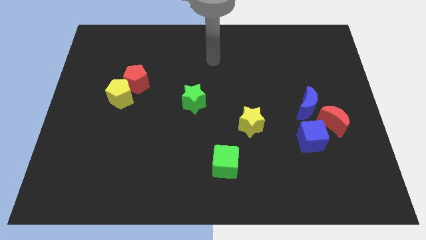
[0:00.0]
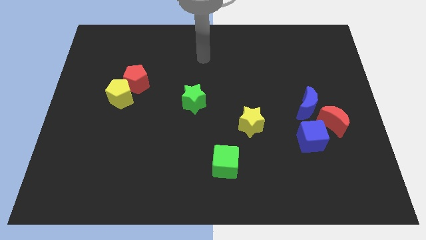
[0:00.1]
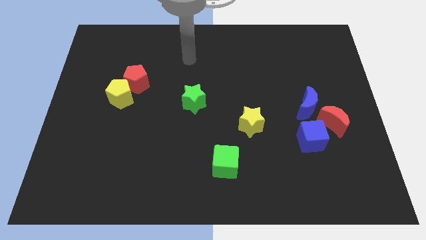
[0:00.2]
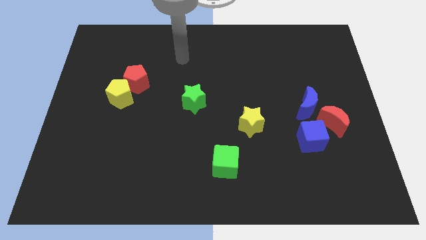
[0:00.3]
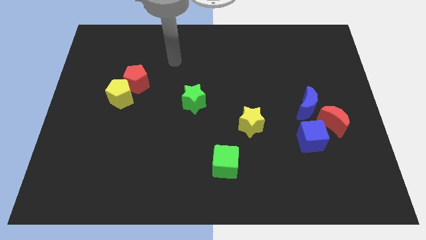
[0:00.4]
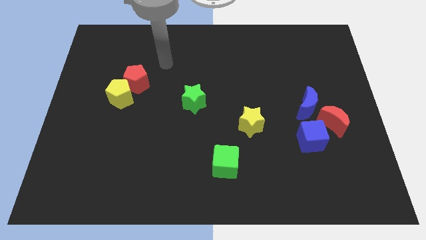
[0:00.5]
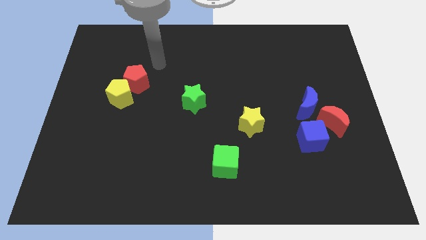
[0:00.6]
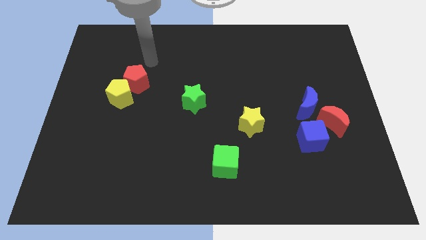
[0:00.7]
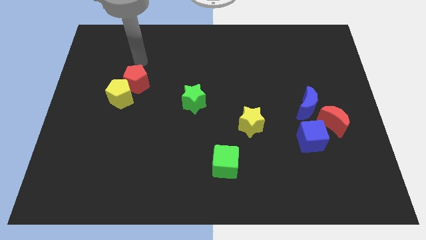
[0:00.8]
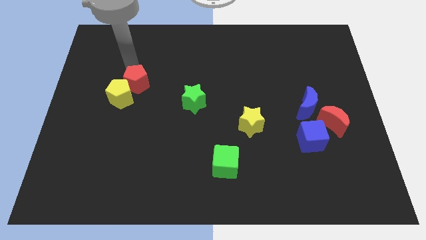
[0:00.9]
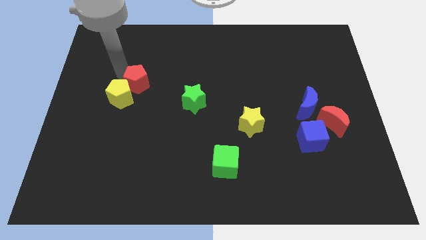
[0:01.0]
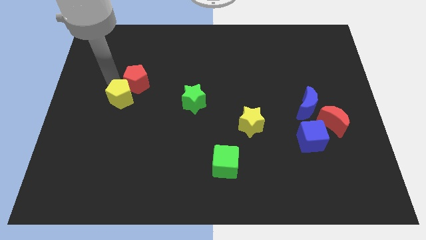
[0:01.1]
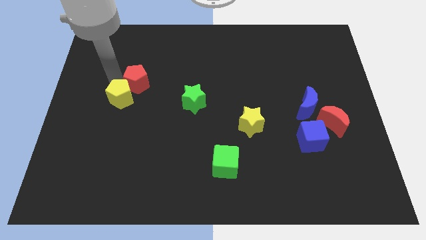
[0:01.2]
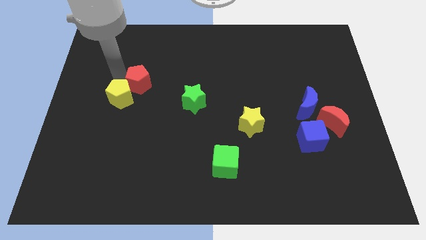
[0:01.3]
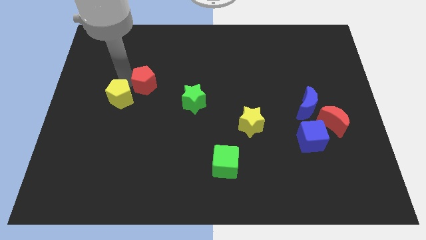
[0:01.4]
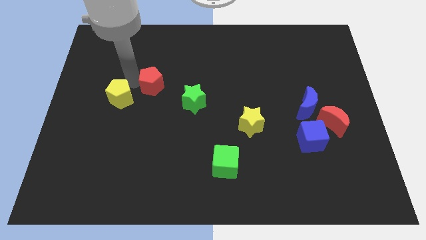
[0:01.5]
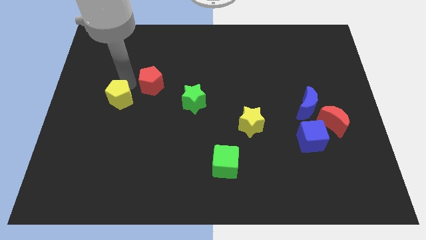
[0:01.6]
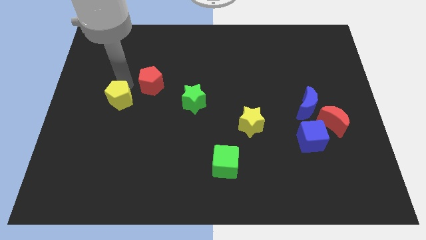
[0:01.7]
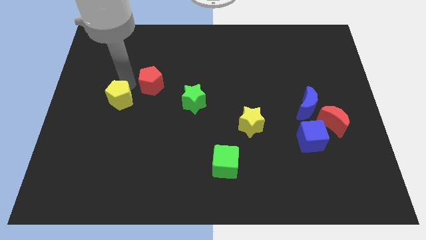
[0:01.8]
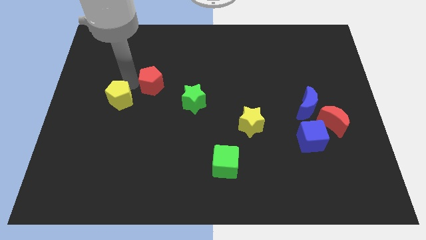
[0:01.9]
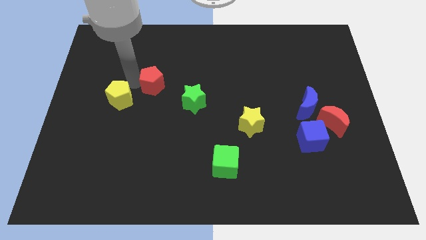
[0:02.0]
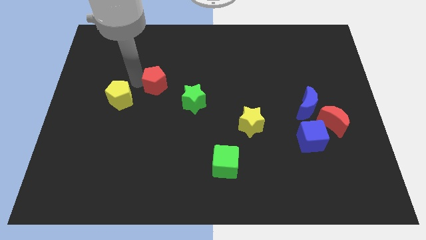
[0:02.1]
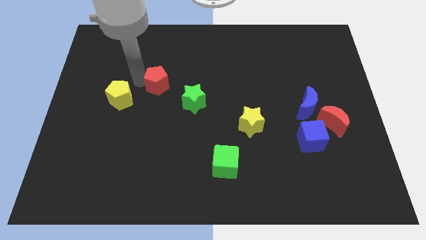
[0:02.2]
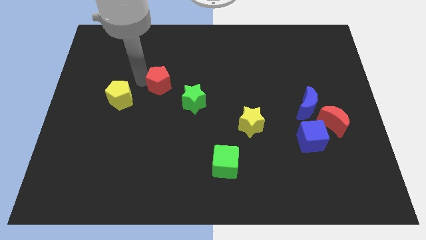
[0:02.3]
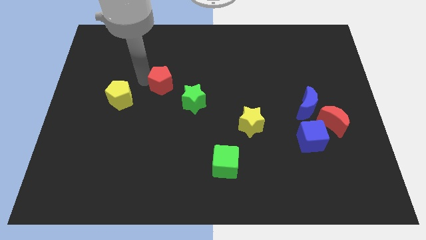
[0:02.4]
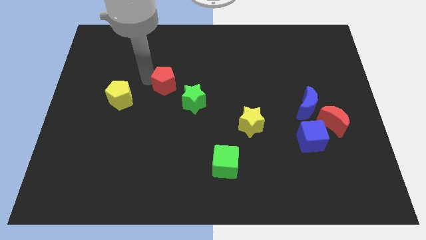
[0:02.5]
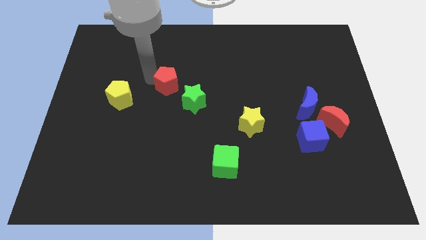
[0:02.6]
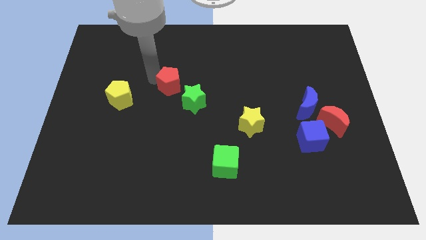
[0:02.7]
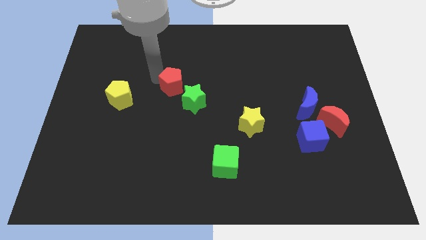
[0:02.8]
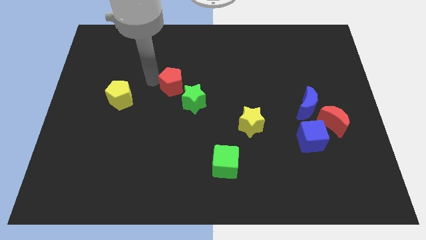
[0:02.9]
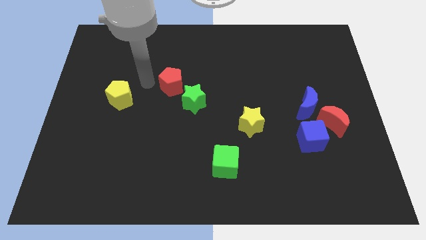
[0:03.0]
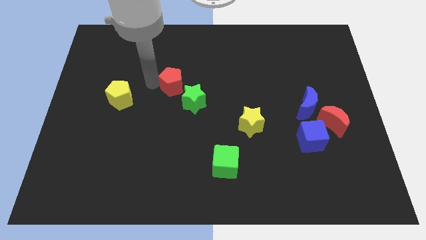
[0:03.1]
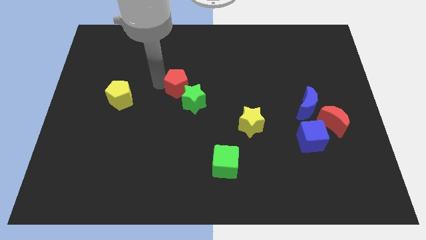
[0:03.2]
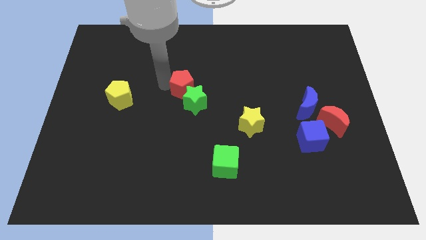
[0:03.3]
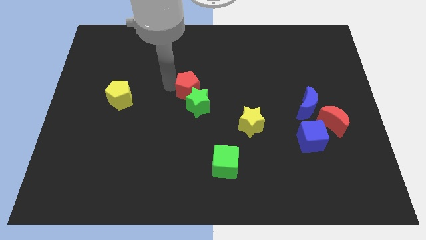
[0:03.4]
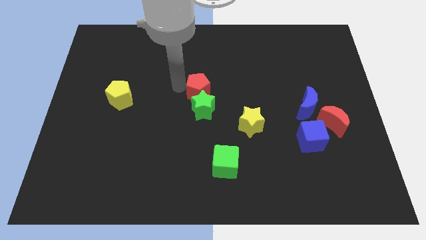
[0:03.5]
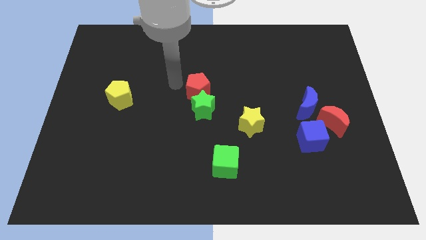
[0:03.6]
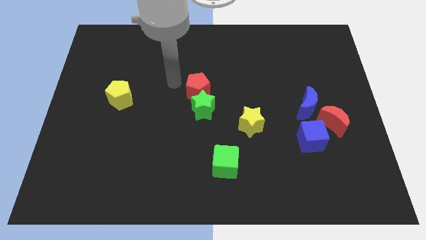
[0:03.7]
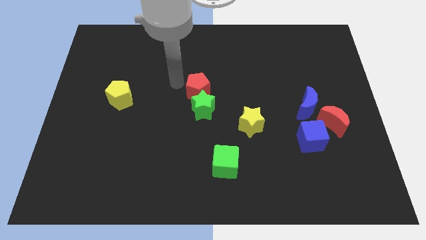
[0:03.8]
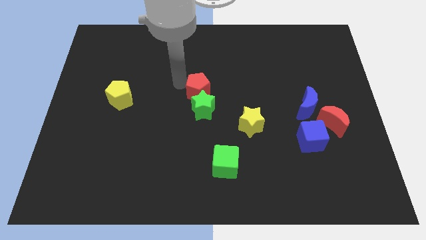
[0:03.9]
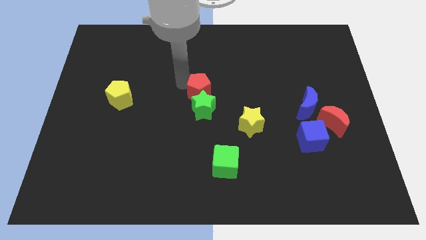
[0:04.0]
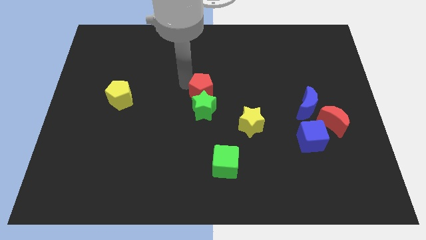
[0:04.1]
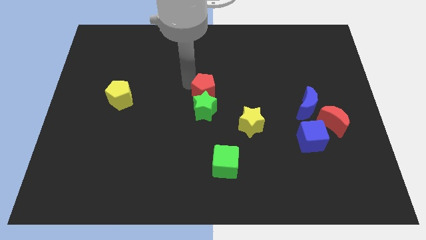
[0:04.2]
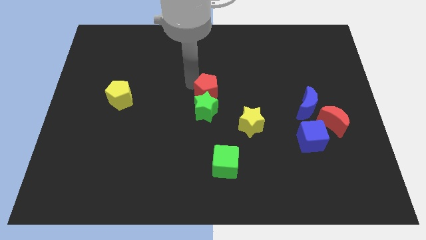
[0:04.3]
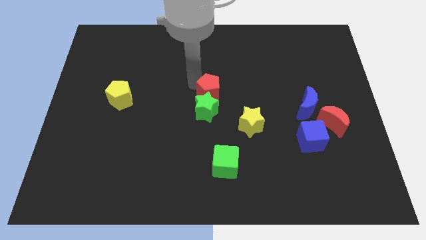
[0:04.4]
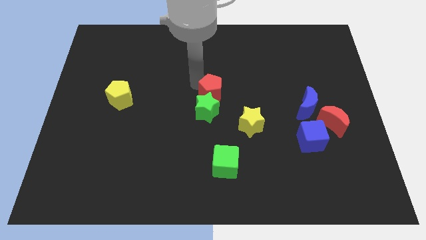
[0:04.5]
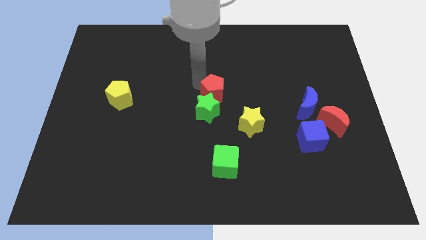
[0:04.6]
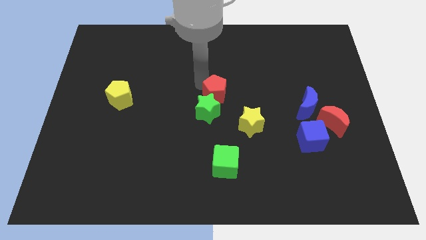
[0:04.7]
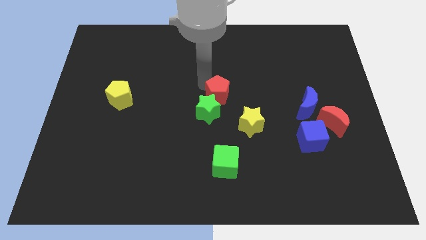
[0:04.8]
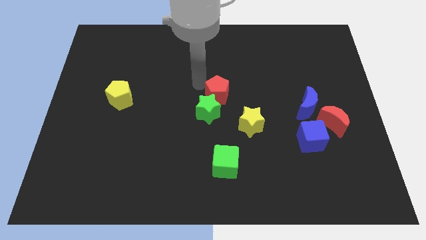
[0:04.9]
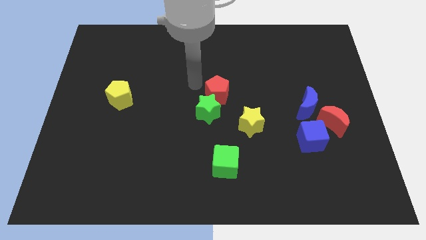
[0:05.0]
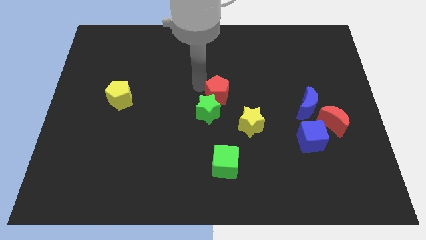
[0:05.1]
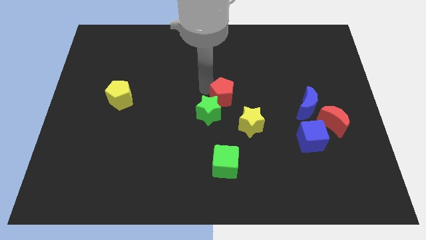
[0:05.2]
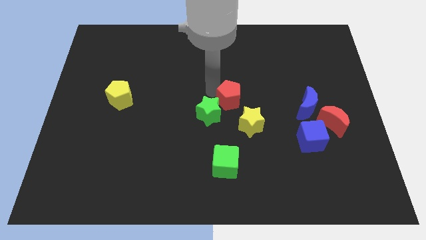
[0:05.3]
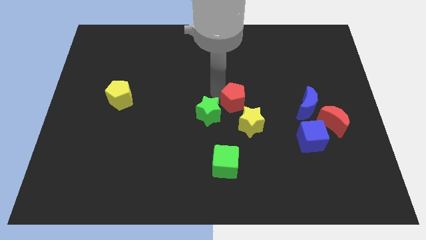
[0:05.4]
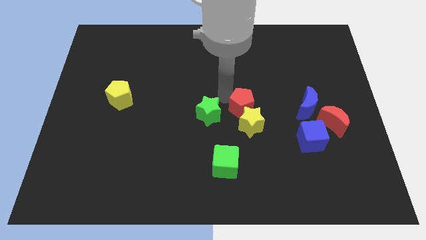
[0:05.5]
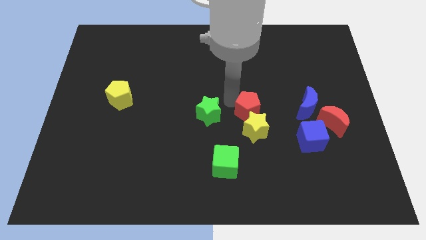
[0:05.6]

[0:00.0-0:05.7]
slide the red pentagon to the top right side of the yellow star

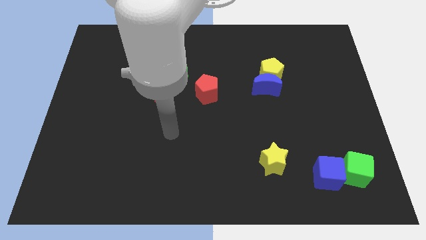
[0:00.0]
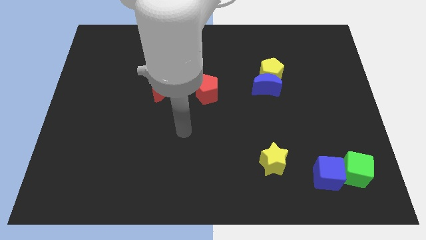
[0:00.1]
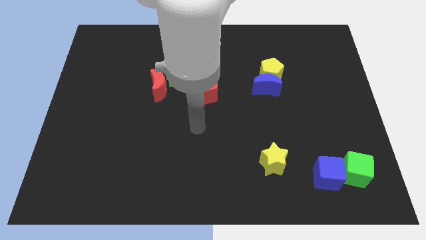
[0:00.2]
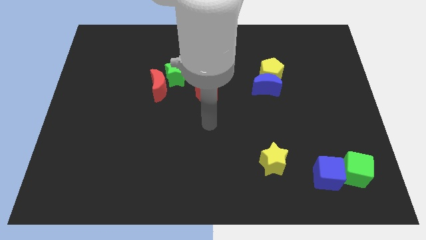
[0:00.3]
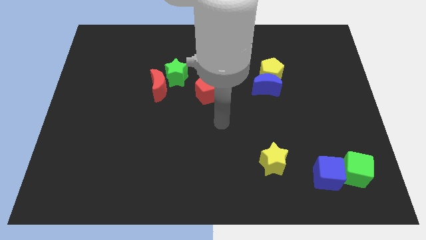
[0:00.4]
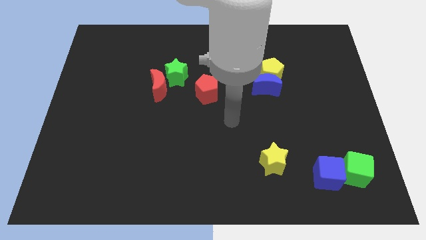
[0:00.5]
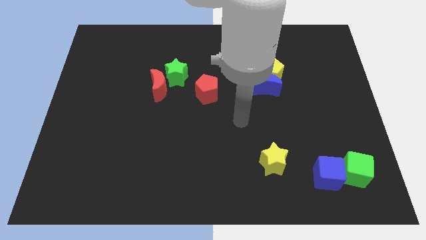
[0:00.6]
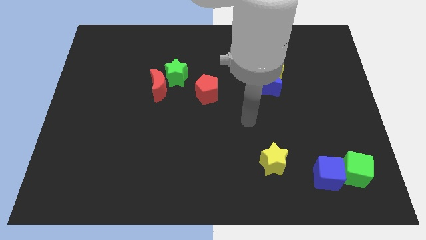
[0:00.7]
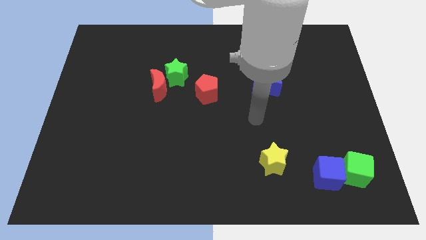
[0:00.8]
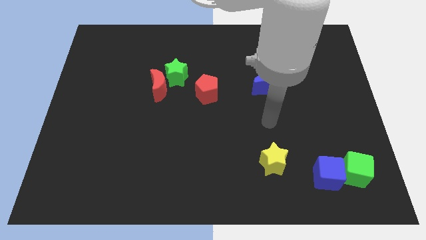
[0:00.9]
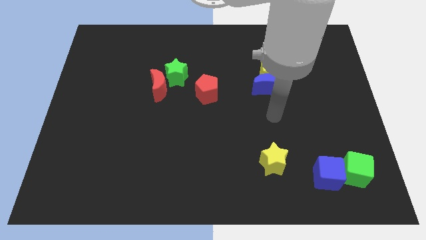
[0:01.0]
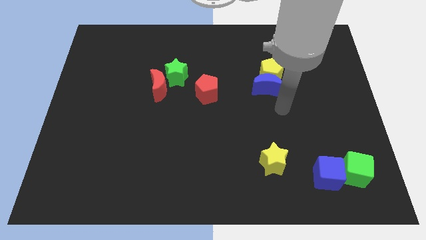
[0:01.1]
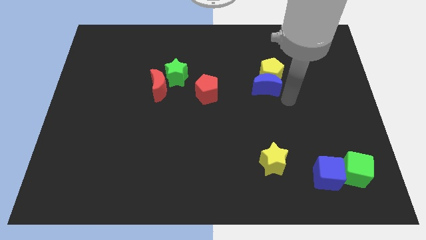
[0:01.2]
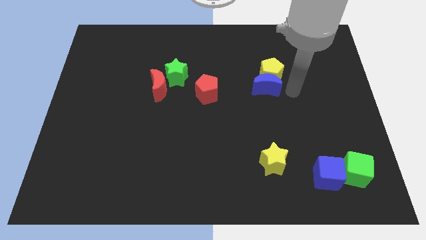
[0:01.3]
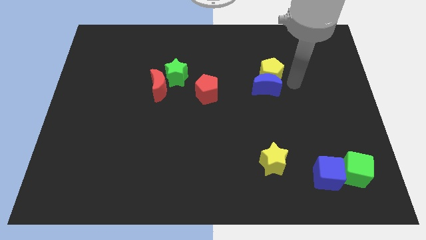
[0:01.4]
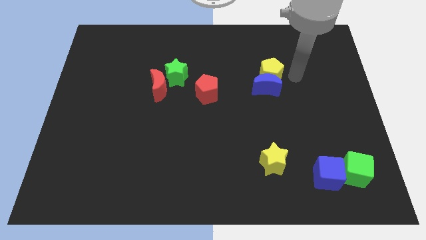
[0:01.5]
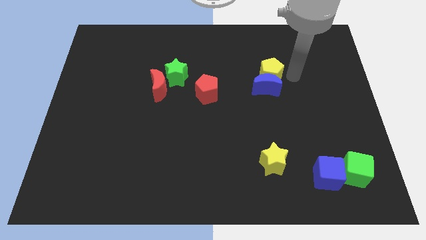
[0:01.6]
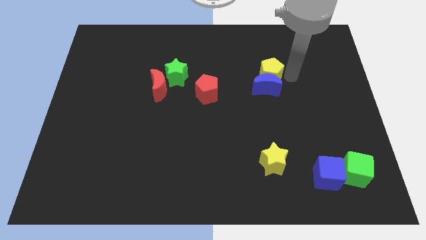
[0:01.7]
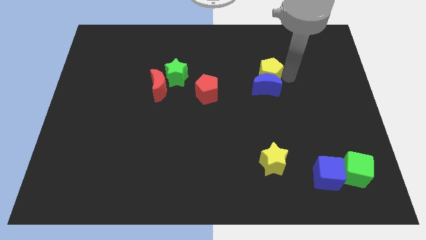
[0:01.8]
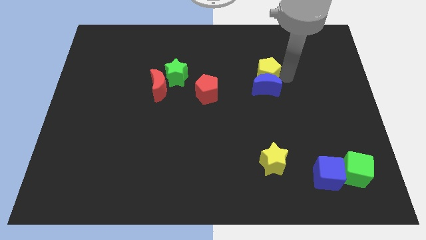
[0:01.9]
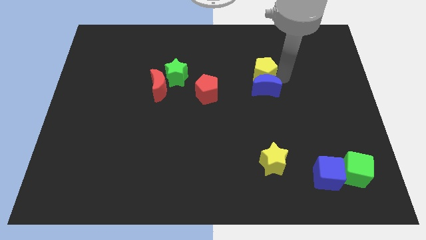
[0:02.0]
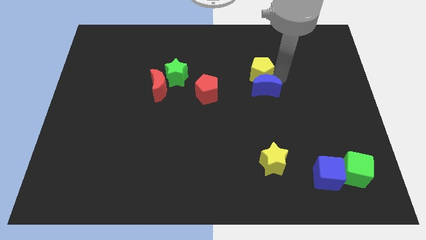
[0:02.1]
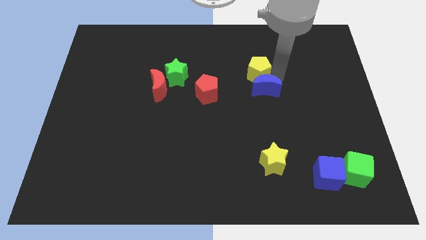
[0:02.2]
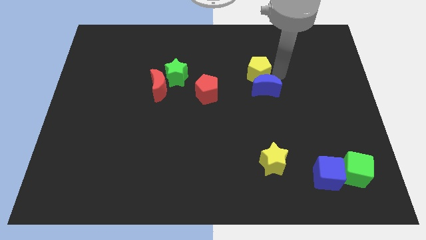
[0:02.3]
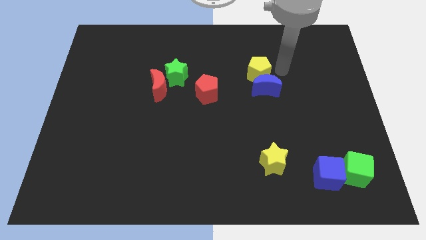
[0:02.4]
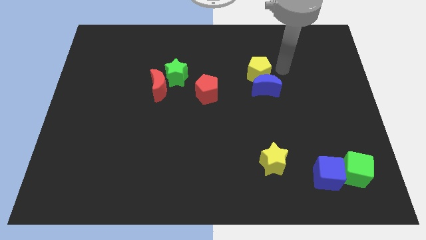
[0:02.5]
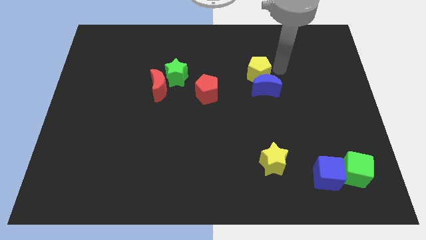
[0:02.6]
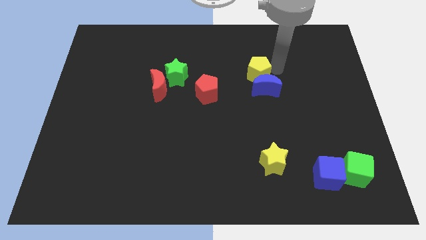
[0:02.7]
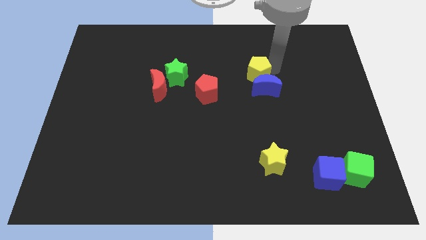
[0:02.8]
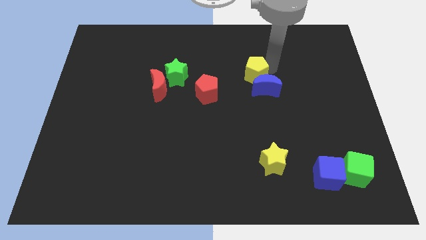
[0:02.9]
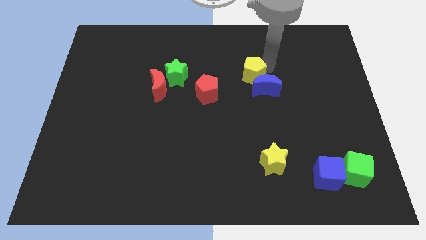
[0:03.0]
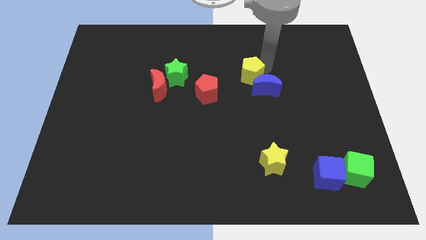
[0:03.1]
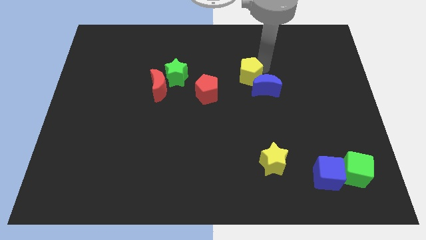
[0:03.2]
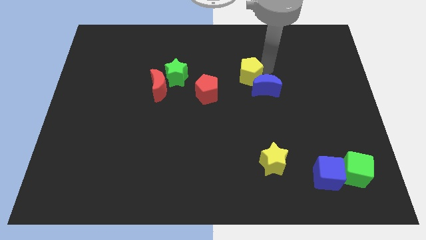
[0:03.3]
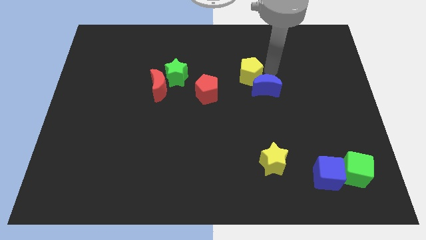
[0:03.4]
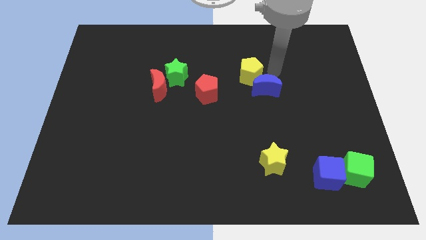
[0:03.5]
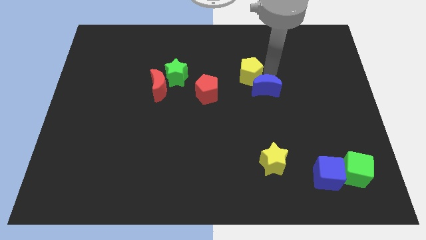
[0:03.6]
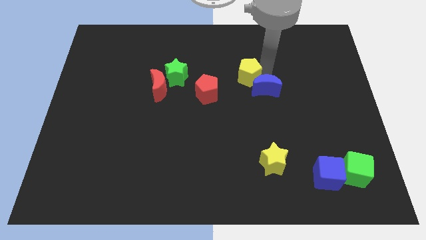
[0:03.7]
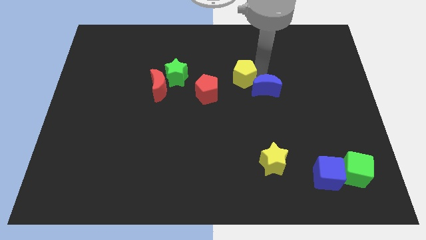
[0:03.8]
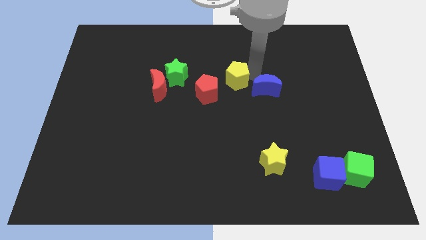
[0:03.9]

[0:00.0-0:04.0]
slide the yellow pentagon just right of the green star
